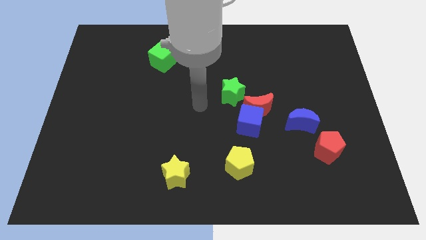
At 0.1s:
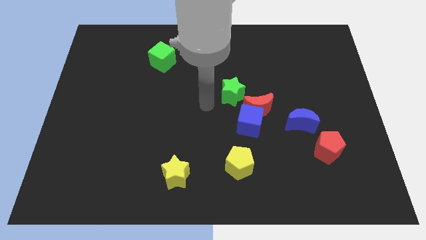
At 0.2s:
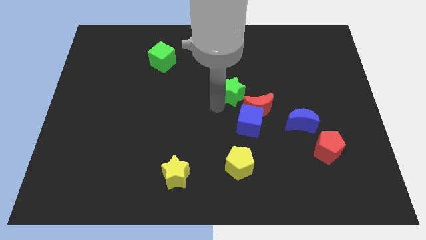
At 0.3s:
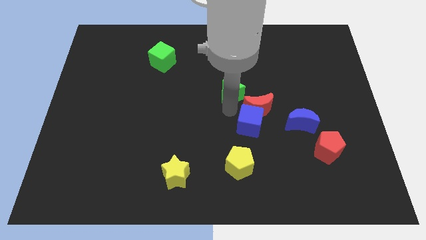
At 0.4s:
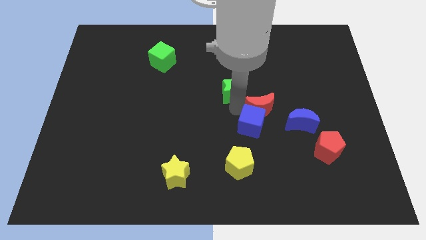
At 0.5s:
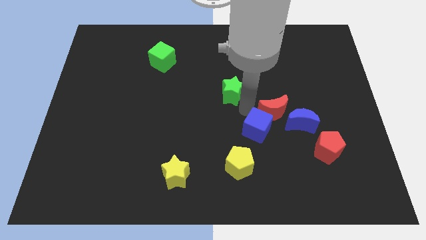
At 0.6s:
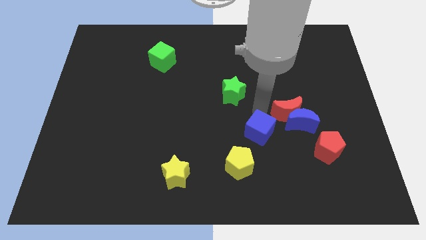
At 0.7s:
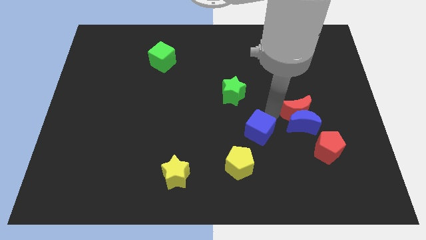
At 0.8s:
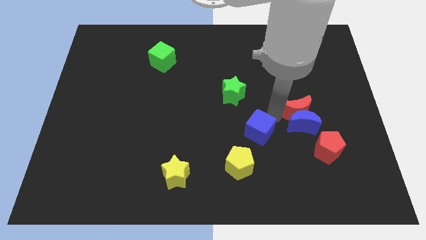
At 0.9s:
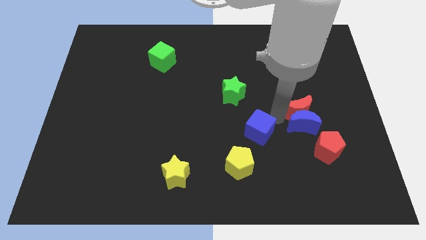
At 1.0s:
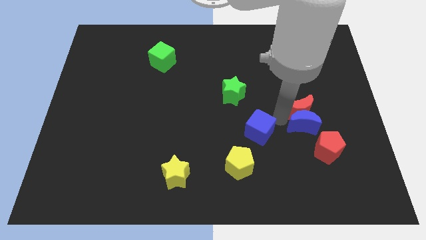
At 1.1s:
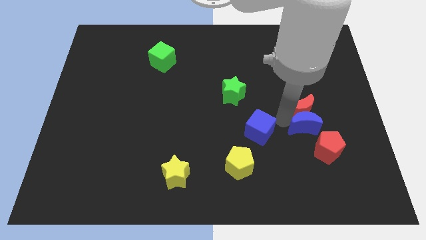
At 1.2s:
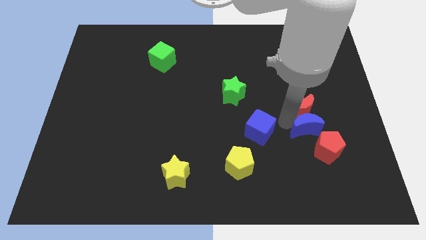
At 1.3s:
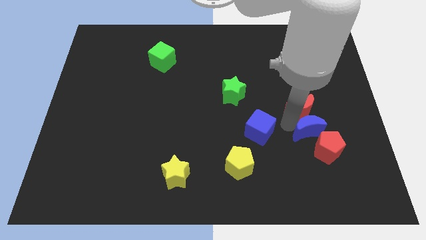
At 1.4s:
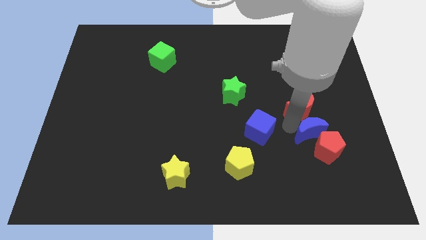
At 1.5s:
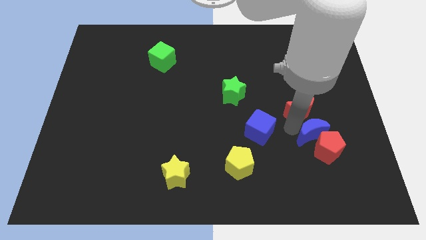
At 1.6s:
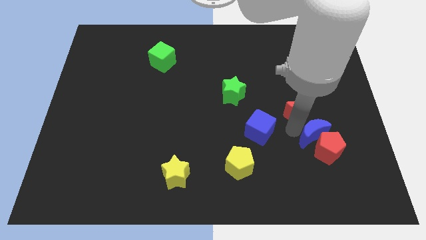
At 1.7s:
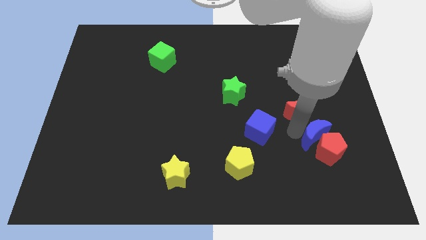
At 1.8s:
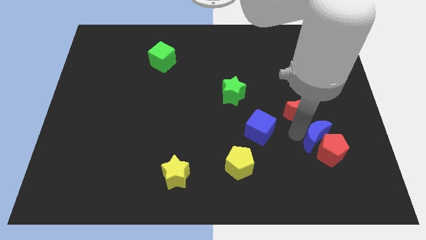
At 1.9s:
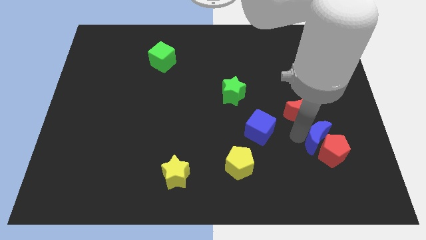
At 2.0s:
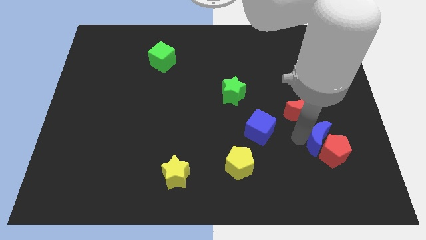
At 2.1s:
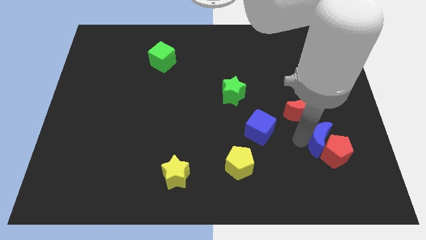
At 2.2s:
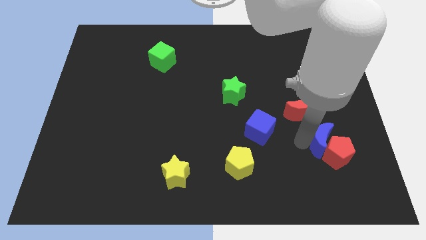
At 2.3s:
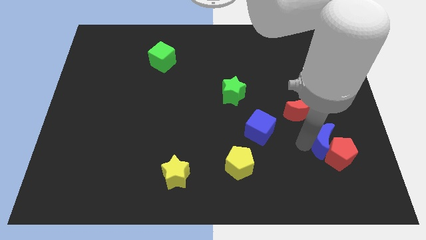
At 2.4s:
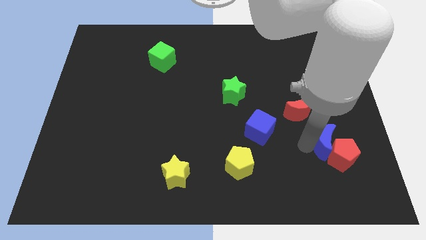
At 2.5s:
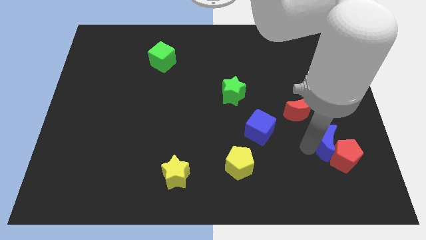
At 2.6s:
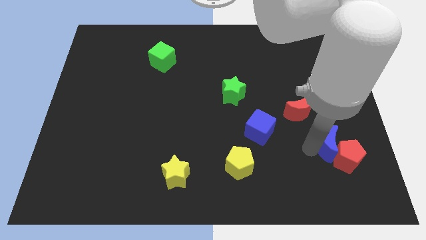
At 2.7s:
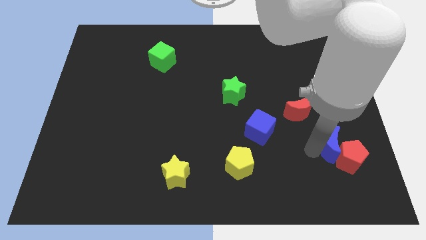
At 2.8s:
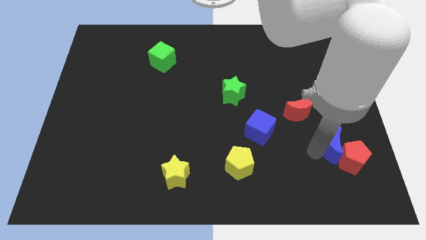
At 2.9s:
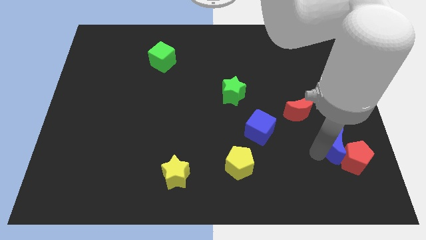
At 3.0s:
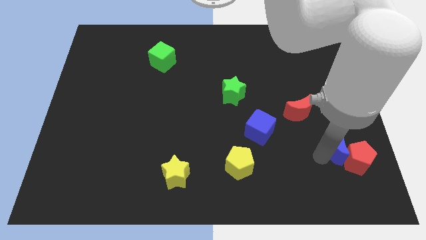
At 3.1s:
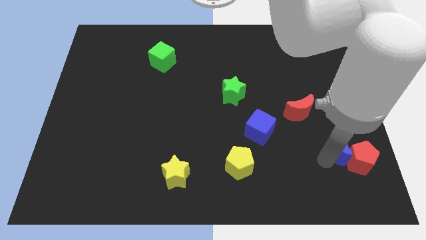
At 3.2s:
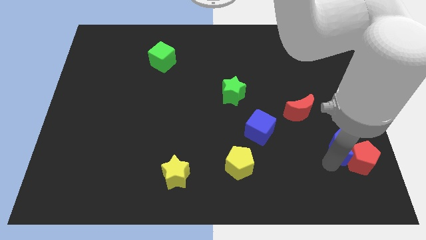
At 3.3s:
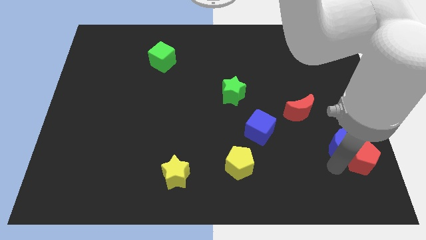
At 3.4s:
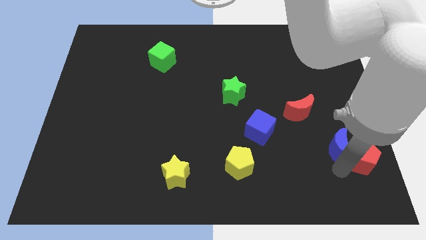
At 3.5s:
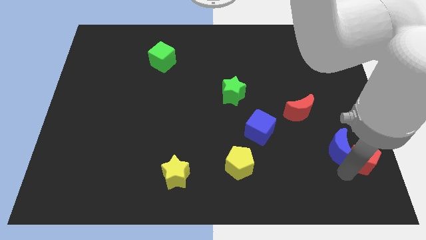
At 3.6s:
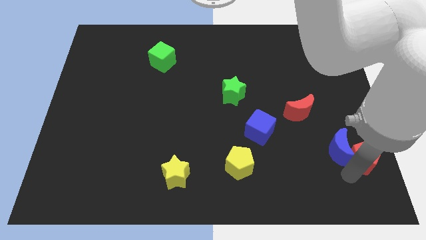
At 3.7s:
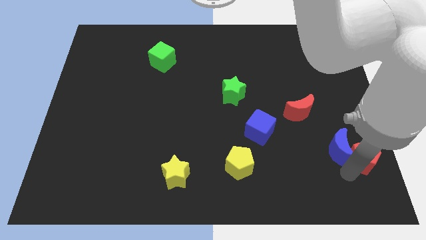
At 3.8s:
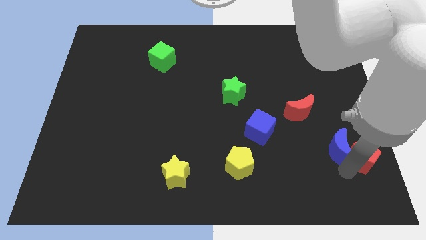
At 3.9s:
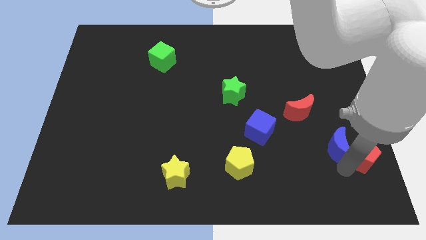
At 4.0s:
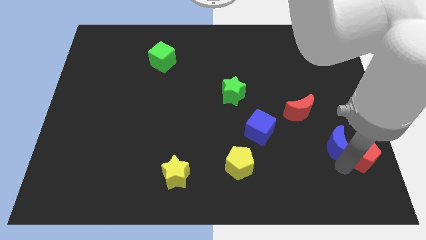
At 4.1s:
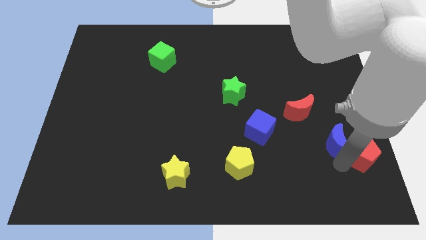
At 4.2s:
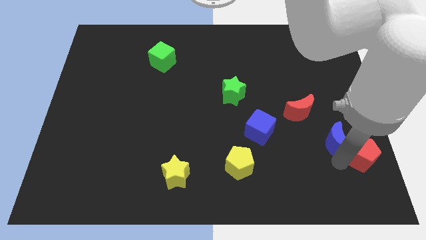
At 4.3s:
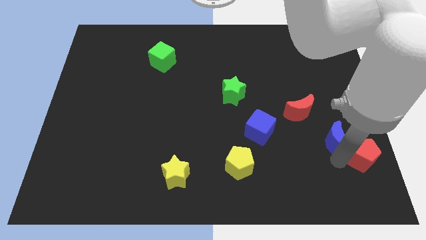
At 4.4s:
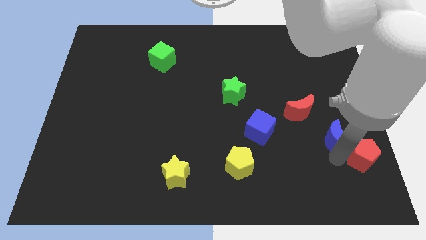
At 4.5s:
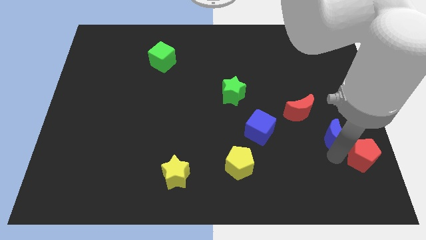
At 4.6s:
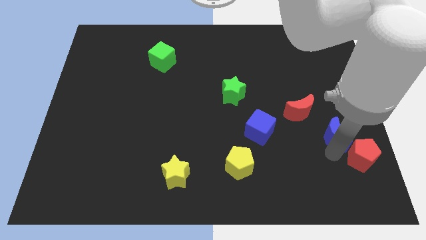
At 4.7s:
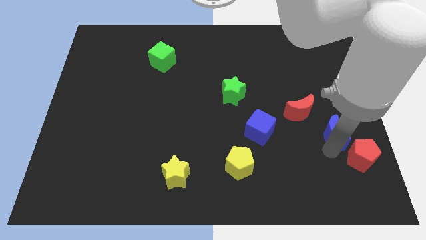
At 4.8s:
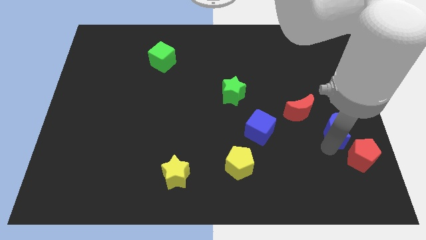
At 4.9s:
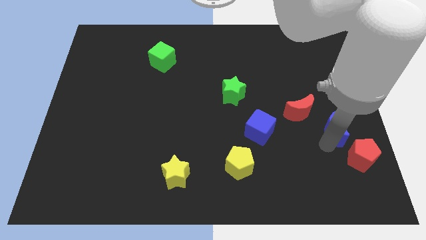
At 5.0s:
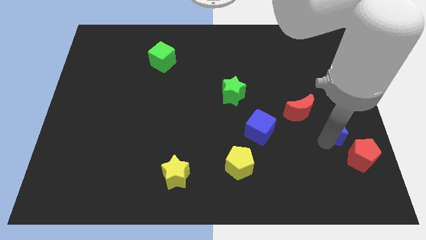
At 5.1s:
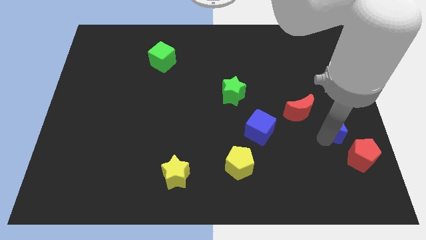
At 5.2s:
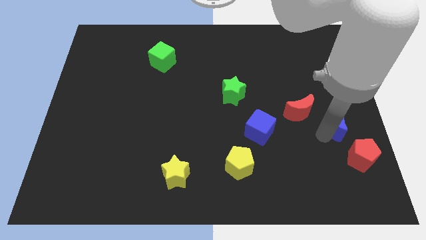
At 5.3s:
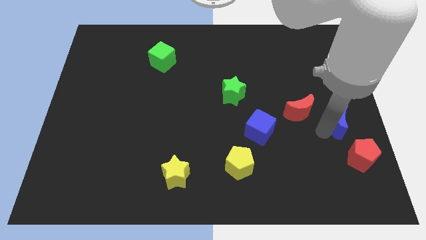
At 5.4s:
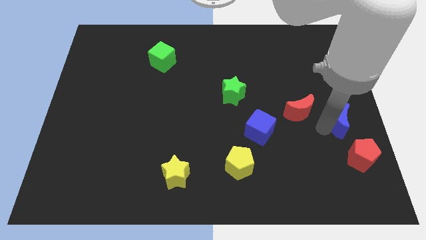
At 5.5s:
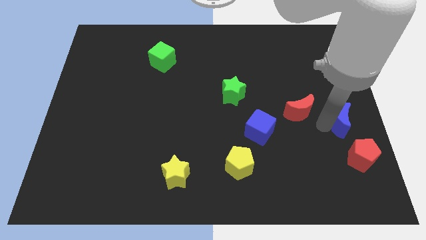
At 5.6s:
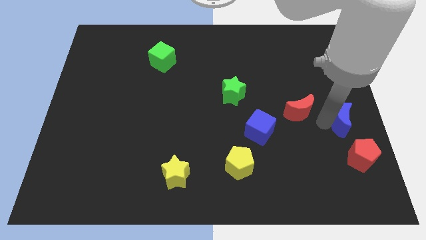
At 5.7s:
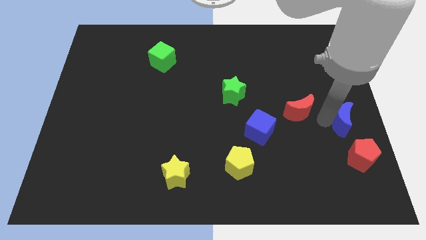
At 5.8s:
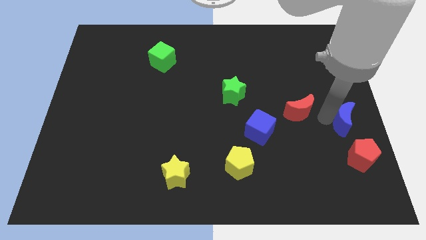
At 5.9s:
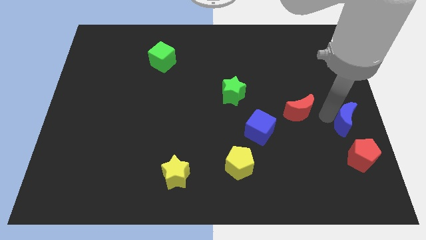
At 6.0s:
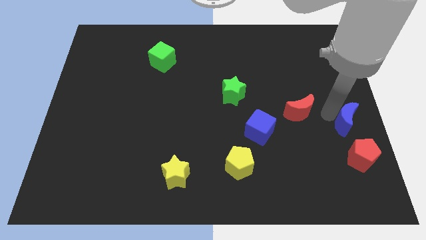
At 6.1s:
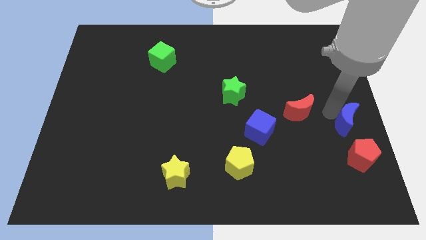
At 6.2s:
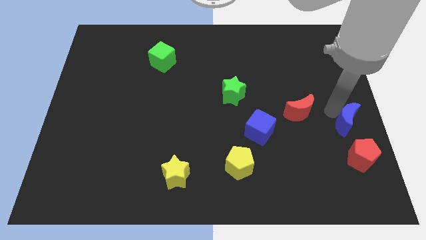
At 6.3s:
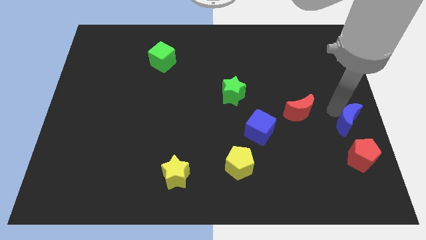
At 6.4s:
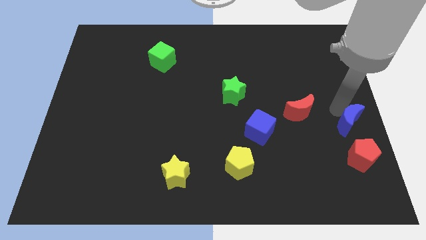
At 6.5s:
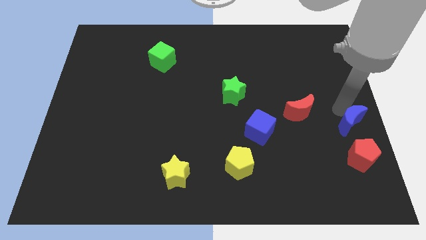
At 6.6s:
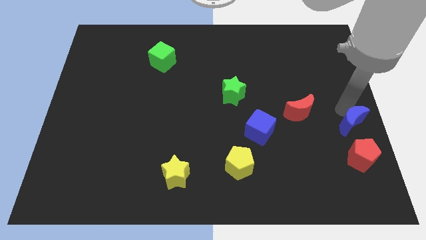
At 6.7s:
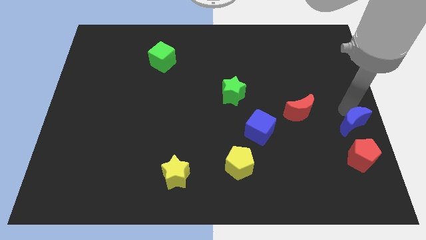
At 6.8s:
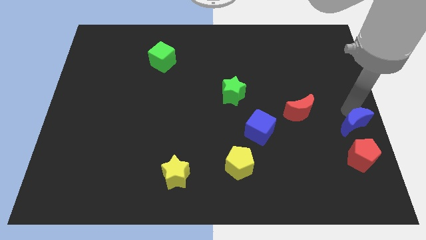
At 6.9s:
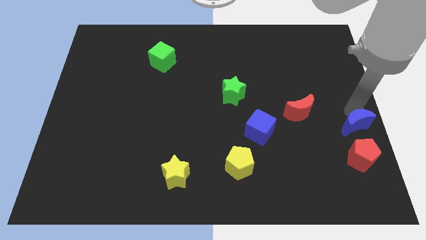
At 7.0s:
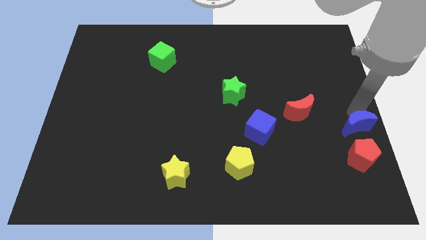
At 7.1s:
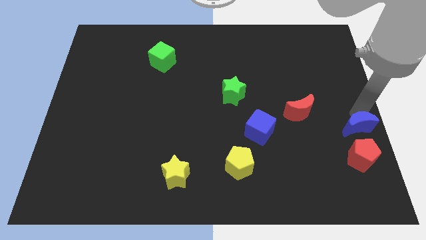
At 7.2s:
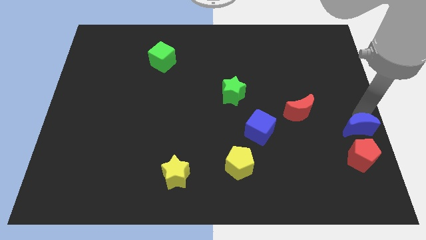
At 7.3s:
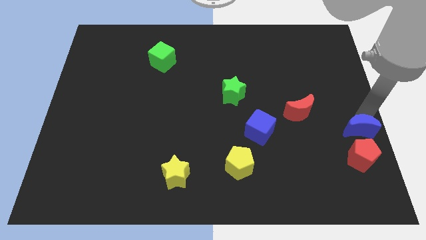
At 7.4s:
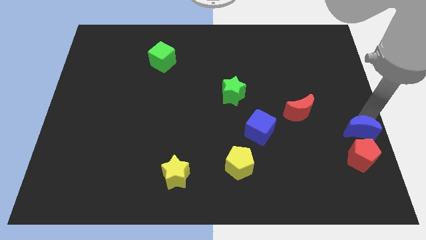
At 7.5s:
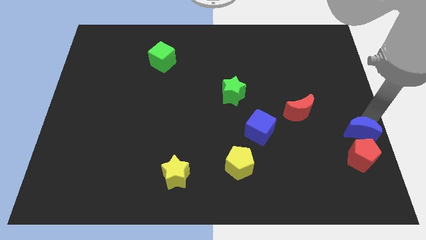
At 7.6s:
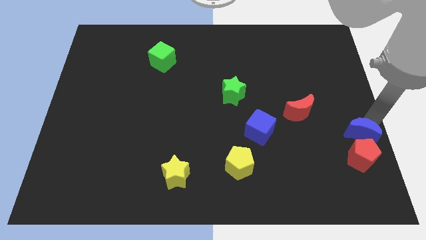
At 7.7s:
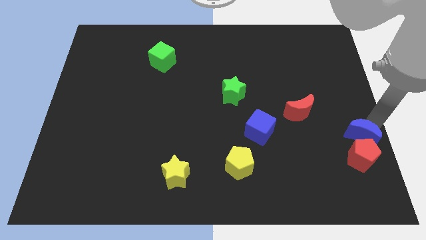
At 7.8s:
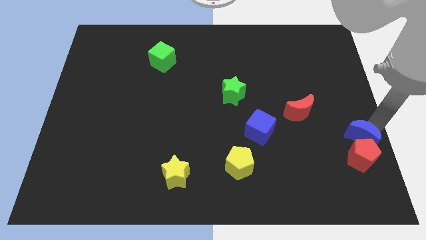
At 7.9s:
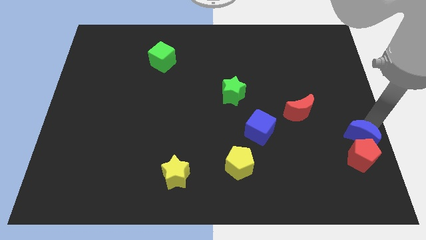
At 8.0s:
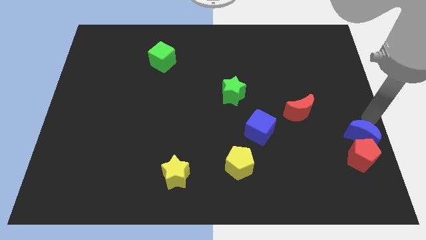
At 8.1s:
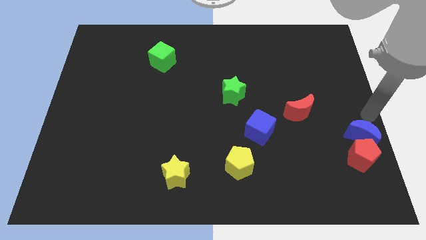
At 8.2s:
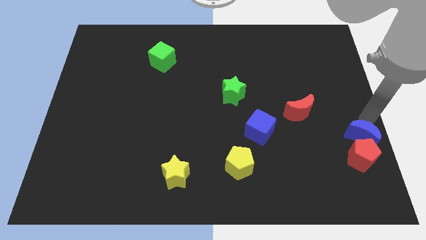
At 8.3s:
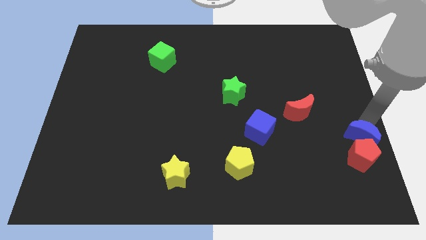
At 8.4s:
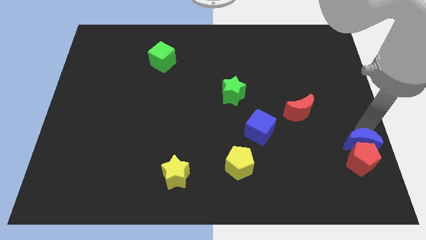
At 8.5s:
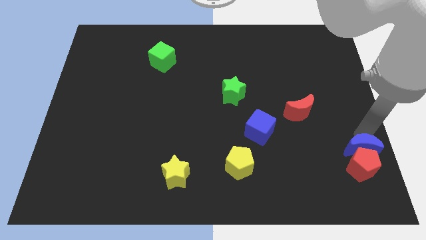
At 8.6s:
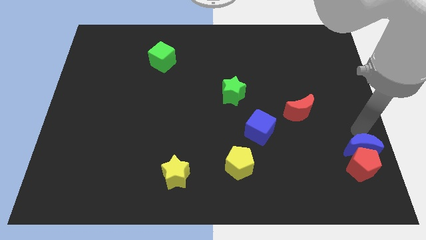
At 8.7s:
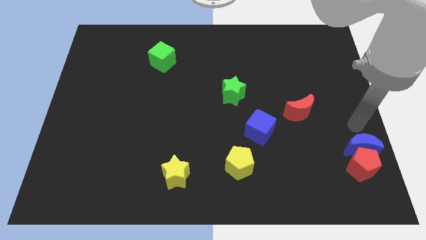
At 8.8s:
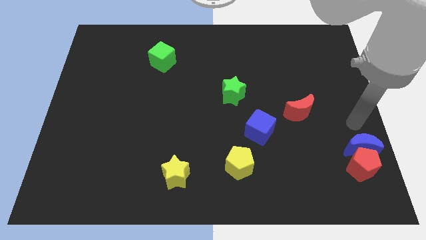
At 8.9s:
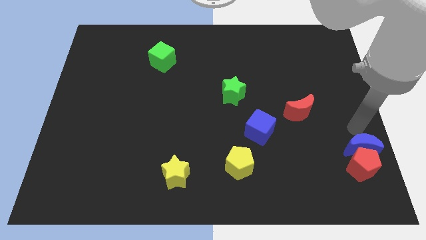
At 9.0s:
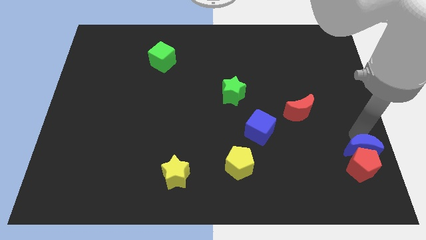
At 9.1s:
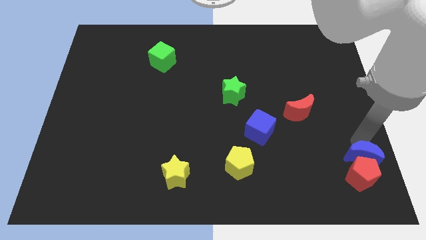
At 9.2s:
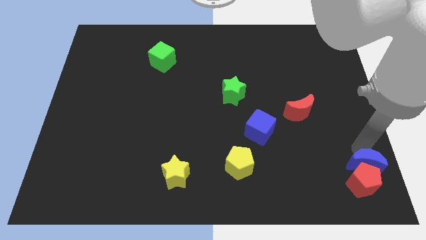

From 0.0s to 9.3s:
put the blue moon to the bottom right of the board
